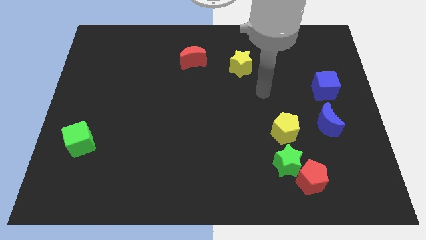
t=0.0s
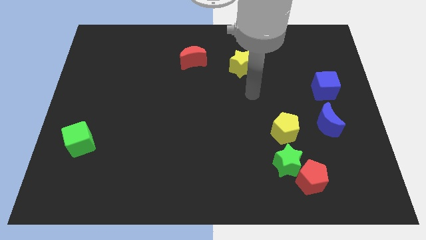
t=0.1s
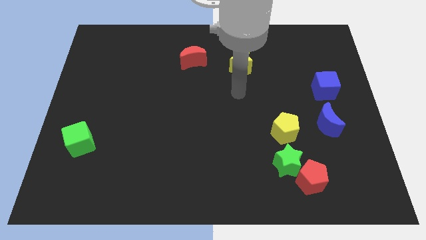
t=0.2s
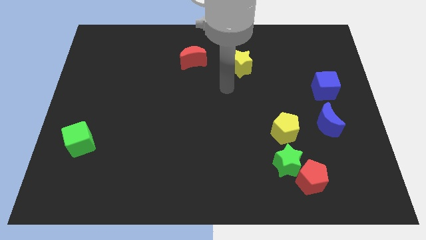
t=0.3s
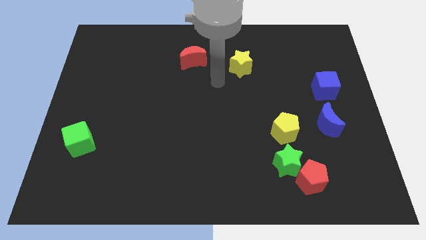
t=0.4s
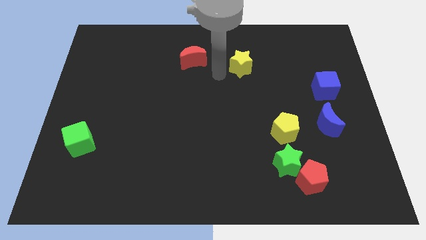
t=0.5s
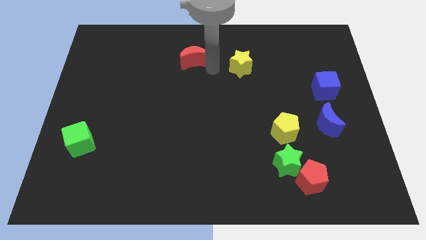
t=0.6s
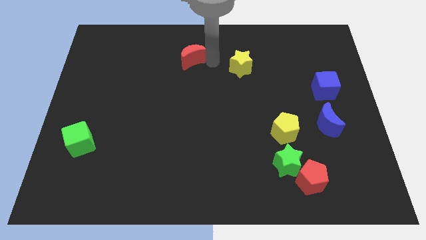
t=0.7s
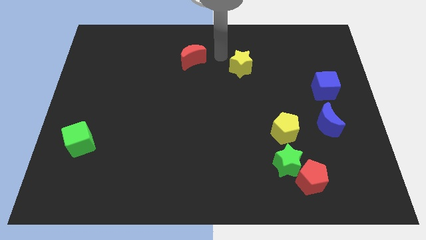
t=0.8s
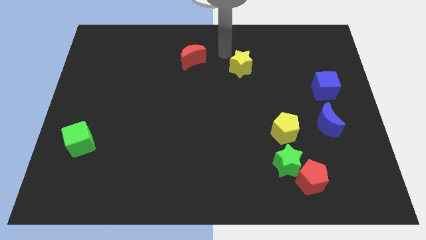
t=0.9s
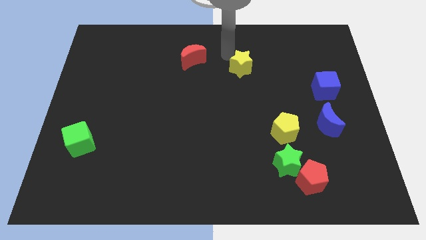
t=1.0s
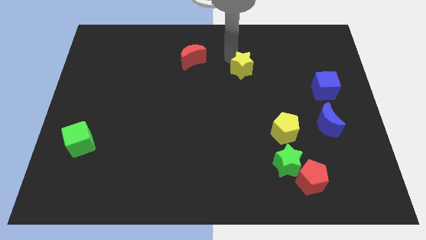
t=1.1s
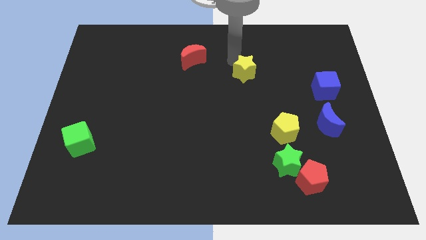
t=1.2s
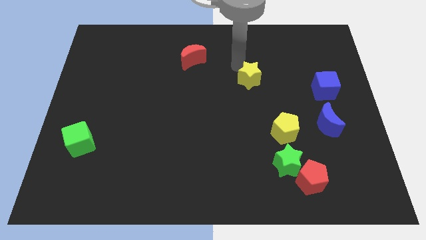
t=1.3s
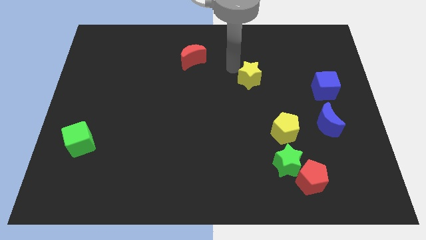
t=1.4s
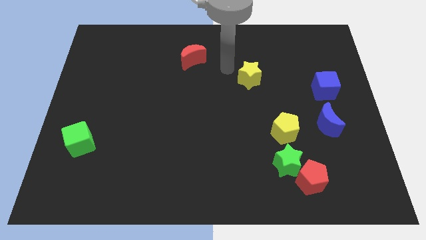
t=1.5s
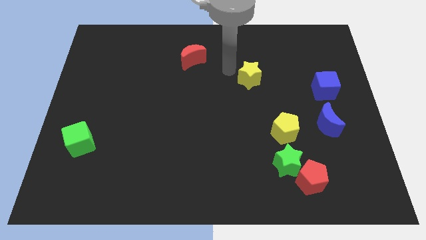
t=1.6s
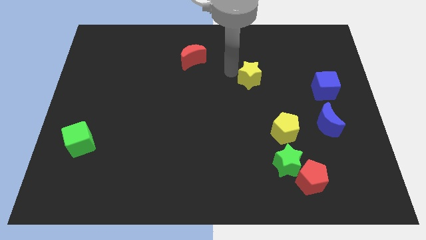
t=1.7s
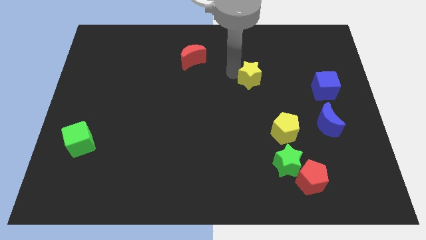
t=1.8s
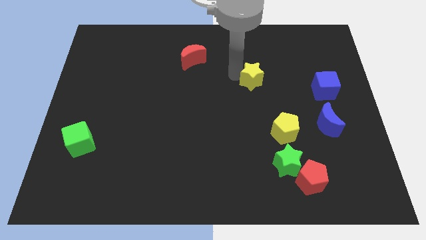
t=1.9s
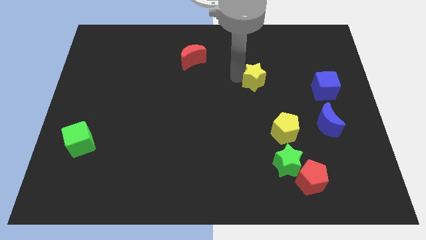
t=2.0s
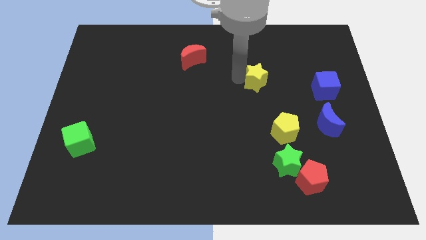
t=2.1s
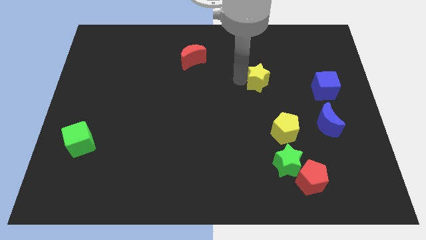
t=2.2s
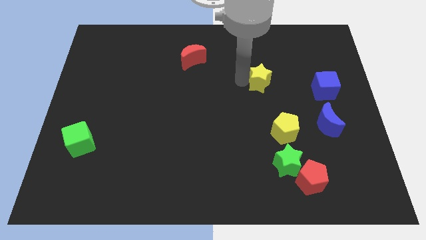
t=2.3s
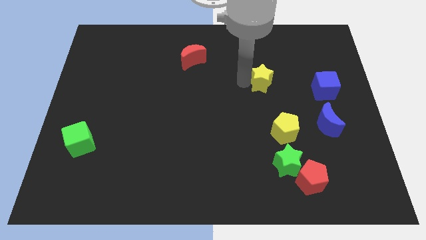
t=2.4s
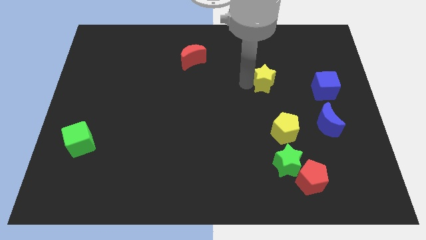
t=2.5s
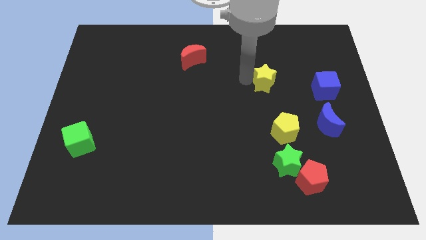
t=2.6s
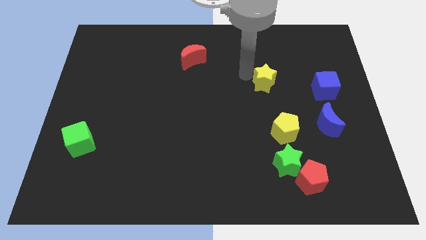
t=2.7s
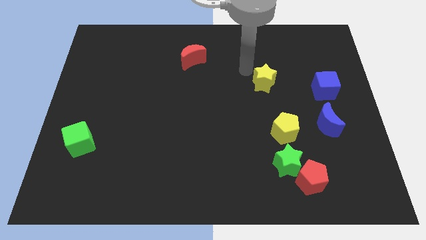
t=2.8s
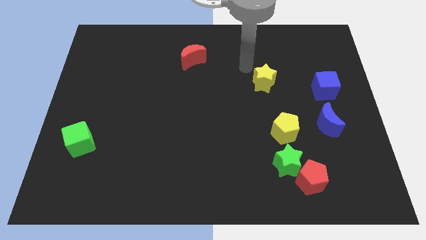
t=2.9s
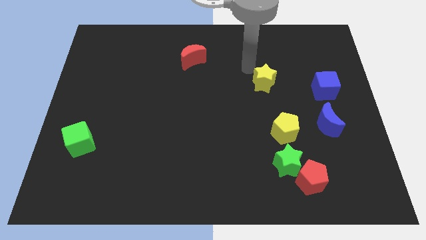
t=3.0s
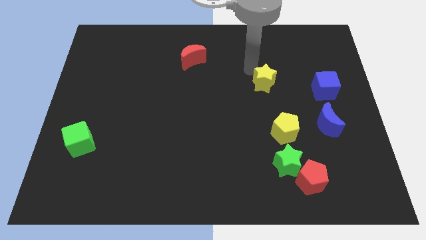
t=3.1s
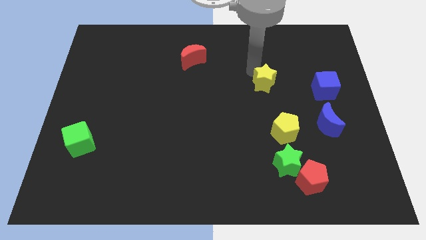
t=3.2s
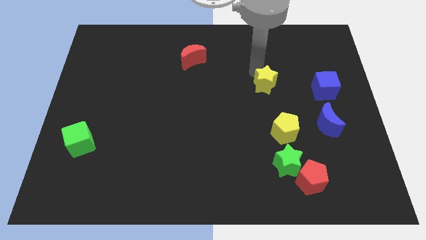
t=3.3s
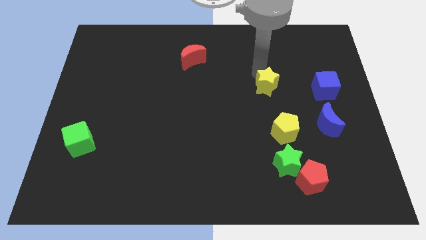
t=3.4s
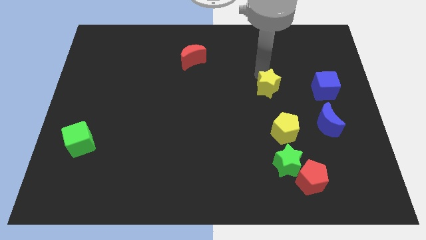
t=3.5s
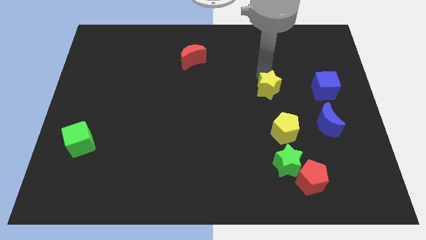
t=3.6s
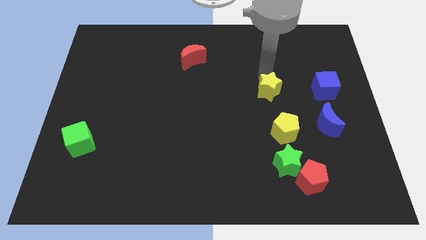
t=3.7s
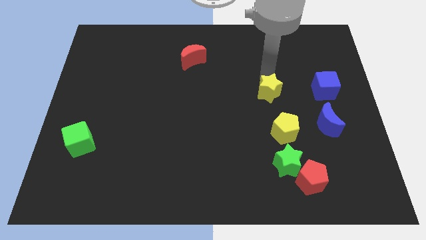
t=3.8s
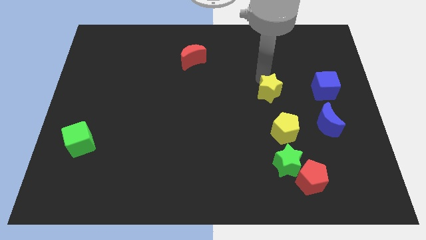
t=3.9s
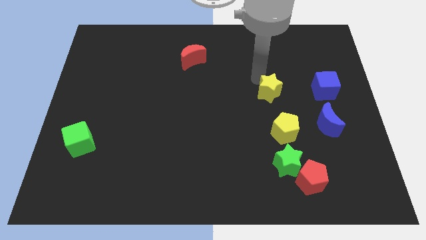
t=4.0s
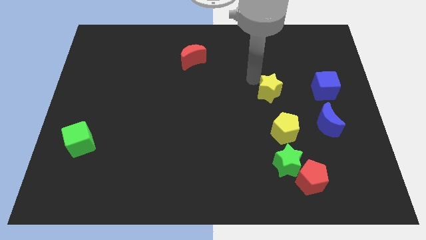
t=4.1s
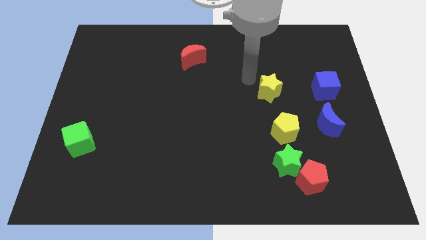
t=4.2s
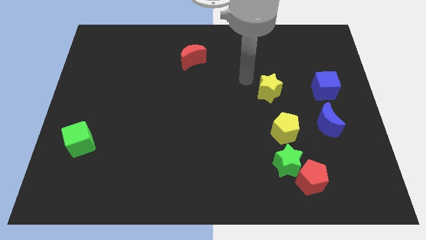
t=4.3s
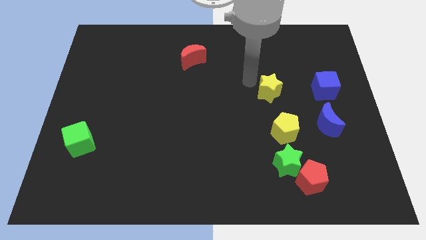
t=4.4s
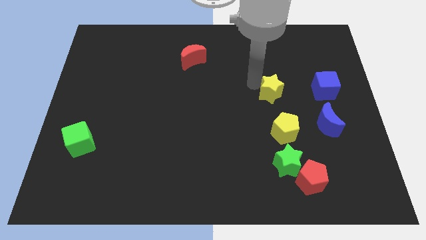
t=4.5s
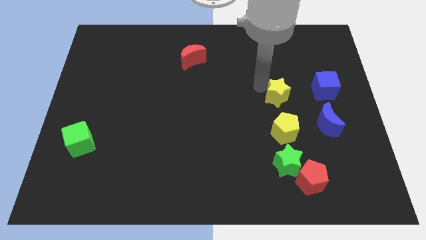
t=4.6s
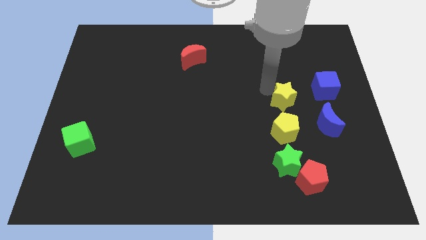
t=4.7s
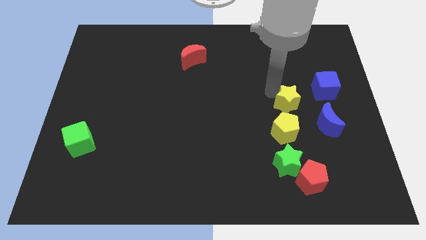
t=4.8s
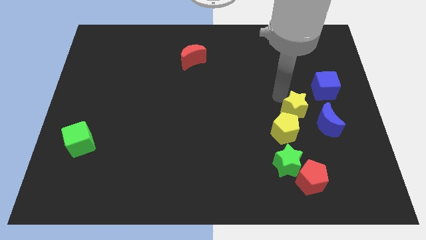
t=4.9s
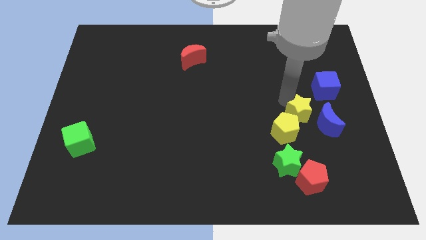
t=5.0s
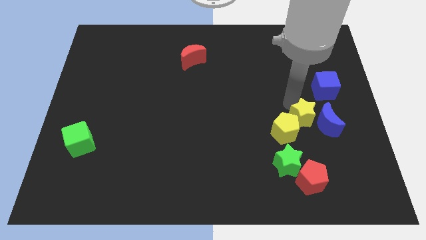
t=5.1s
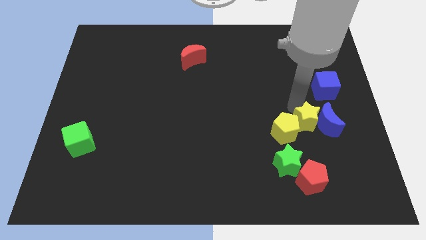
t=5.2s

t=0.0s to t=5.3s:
move the yellow star to the bottom left of the blue moon

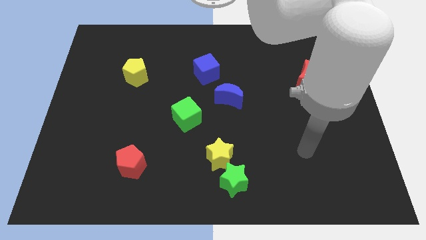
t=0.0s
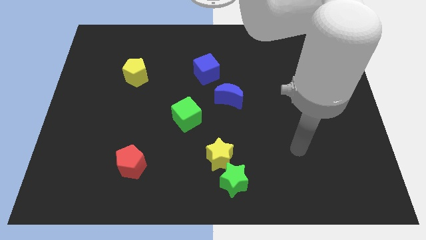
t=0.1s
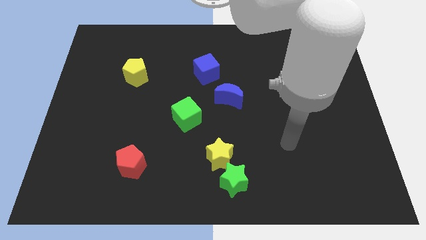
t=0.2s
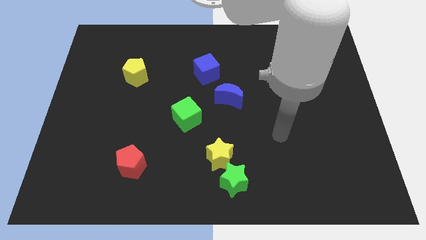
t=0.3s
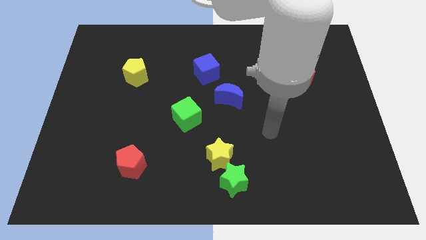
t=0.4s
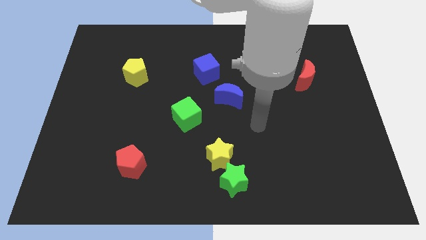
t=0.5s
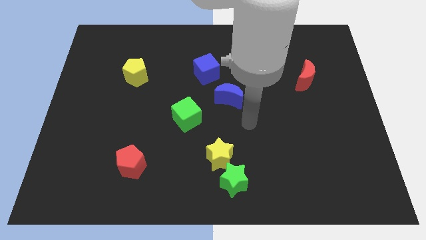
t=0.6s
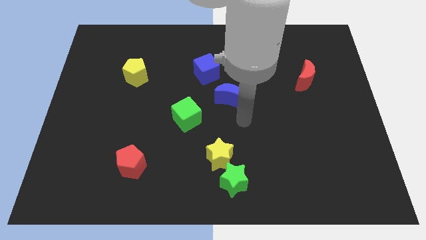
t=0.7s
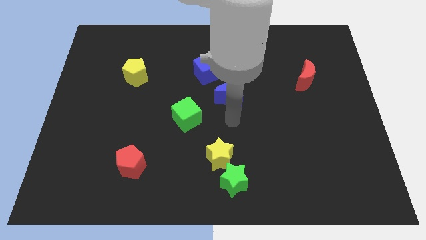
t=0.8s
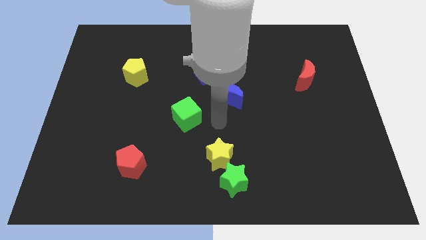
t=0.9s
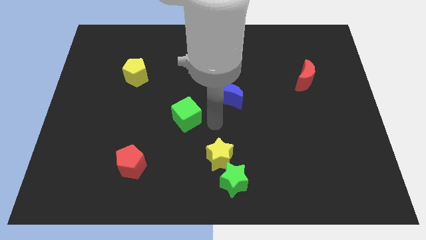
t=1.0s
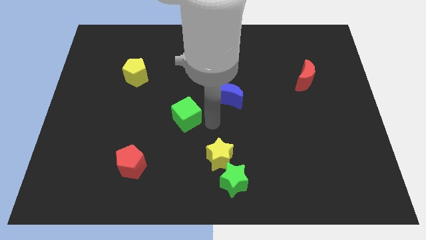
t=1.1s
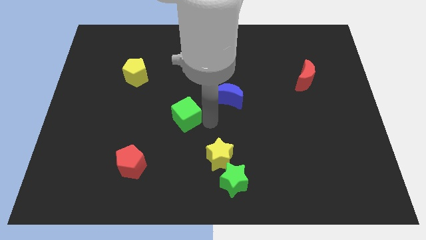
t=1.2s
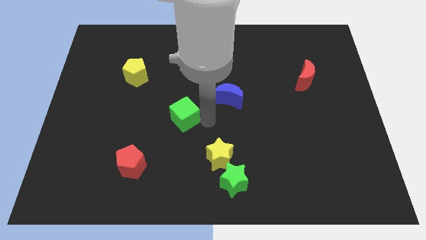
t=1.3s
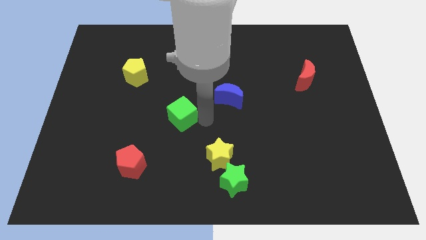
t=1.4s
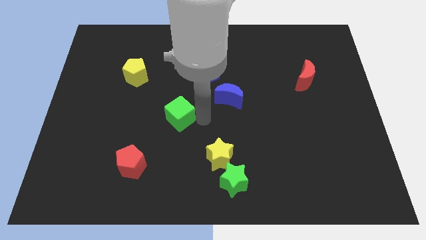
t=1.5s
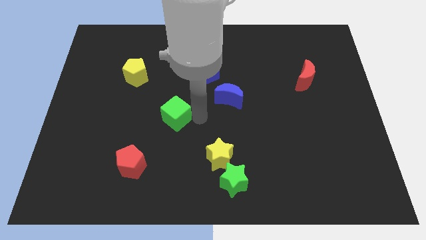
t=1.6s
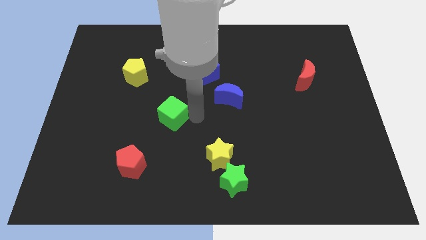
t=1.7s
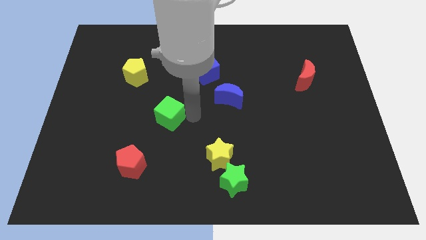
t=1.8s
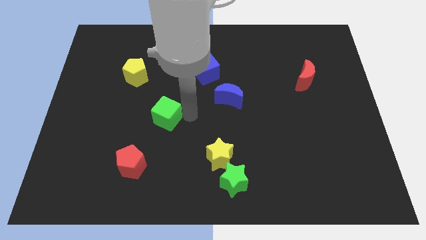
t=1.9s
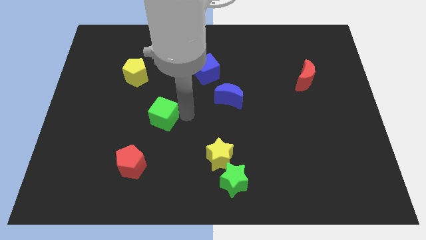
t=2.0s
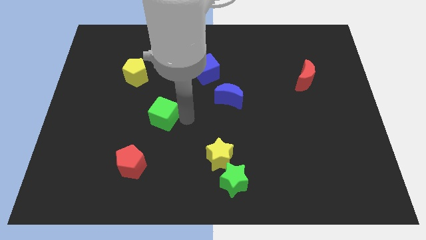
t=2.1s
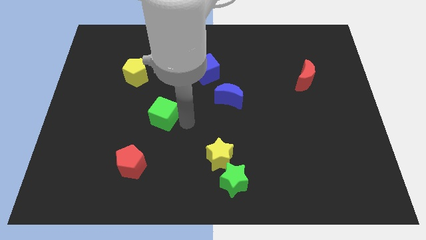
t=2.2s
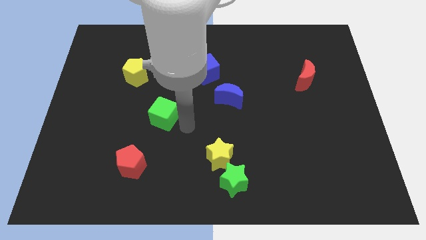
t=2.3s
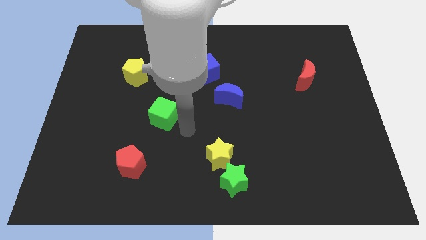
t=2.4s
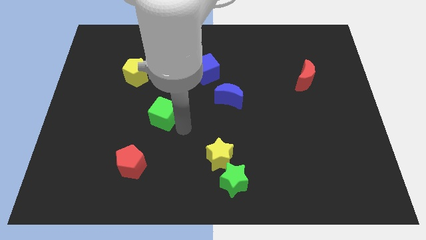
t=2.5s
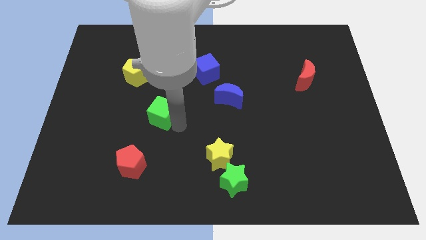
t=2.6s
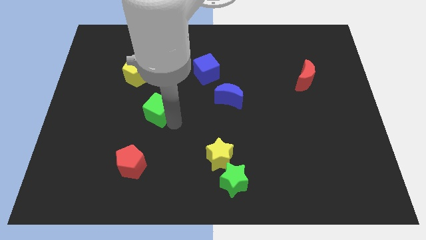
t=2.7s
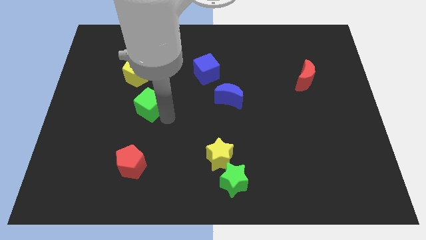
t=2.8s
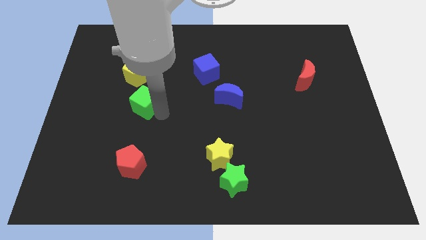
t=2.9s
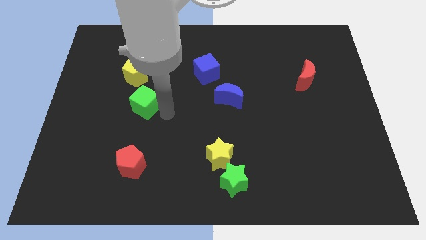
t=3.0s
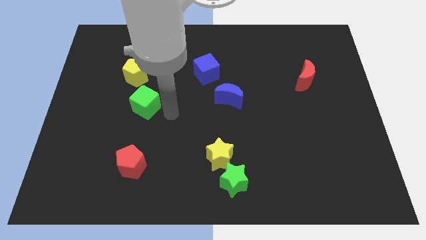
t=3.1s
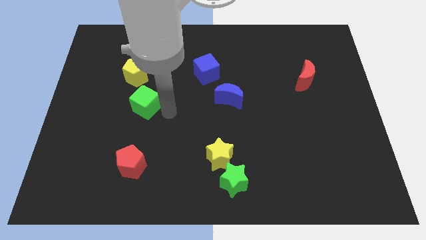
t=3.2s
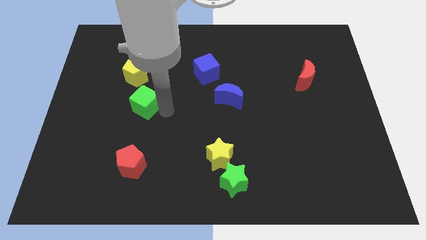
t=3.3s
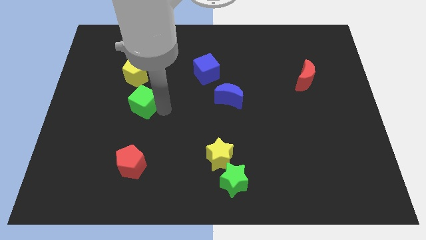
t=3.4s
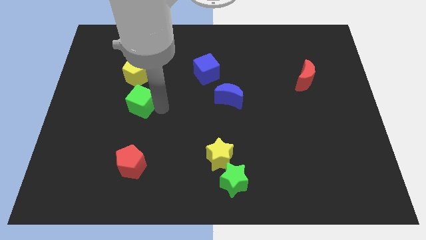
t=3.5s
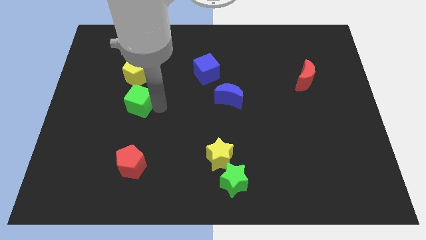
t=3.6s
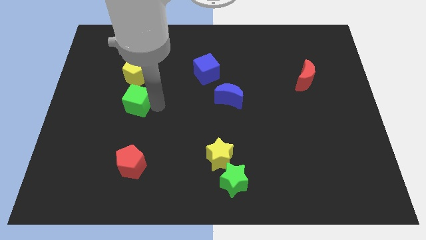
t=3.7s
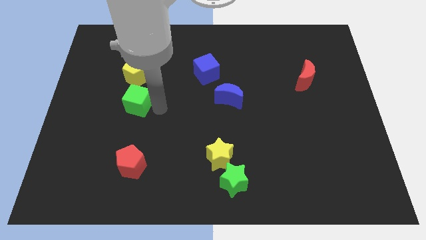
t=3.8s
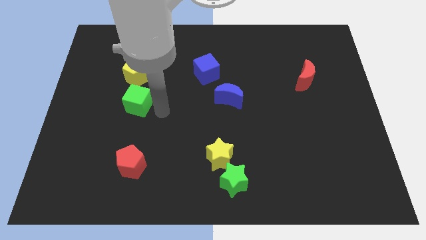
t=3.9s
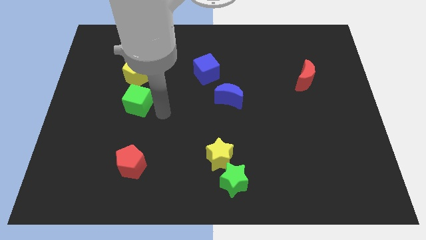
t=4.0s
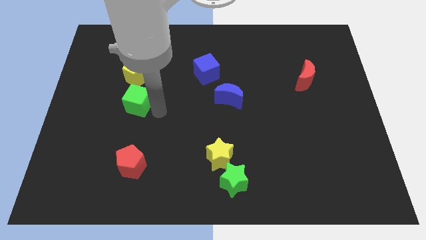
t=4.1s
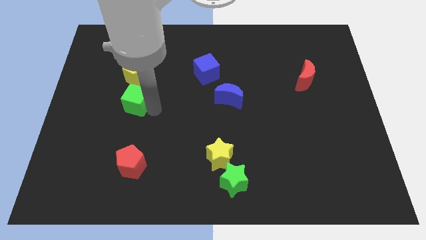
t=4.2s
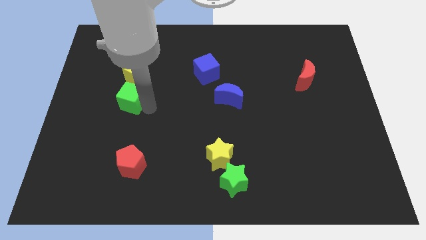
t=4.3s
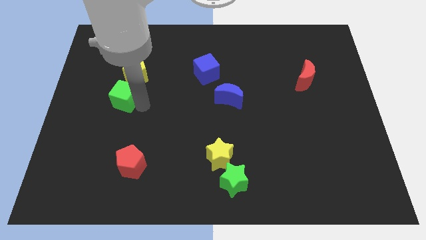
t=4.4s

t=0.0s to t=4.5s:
put the green cube to the bottom left side of the yellow pentagon
